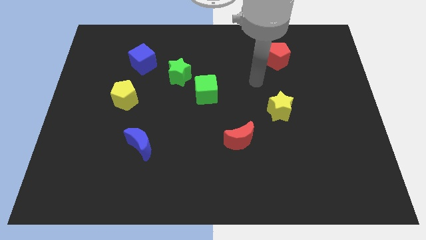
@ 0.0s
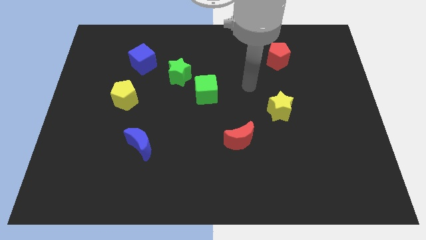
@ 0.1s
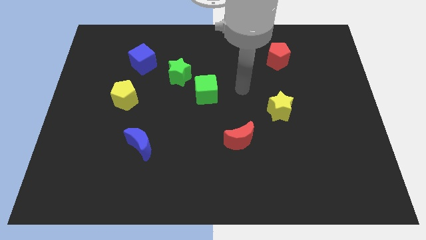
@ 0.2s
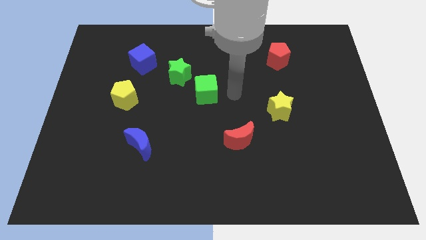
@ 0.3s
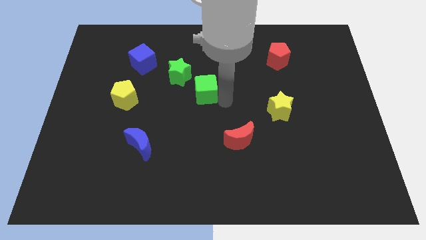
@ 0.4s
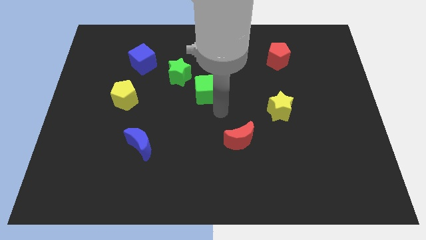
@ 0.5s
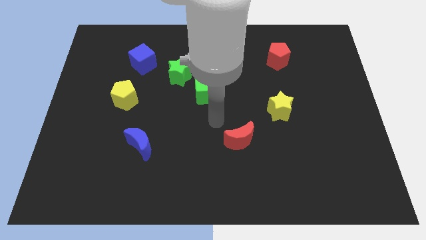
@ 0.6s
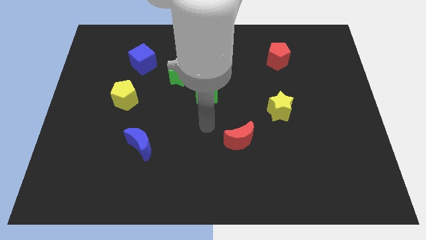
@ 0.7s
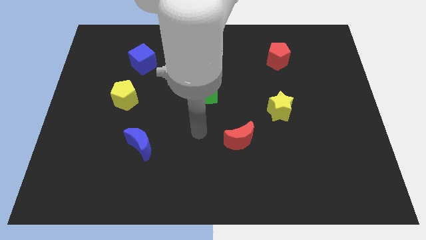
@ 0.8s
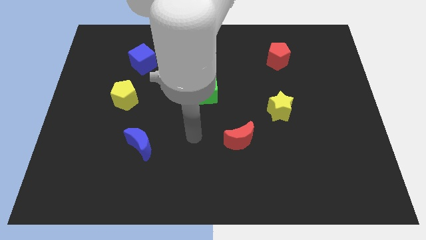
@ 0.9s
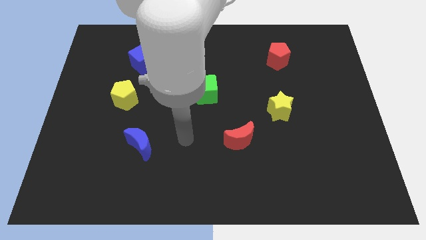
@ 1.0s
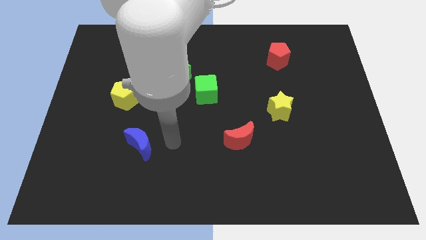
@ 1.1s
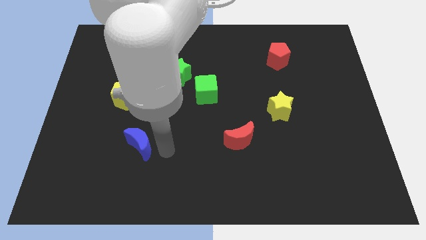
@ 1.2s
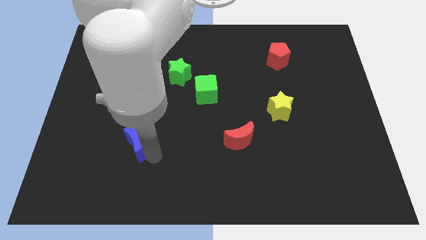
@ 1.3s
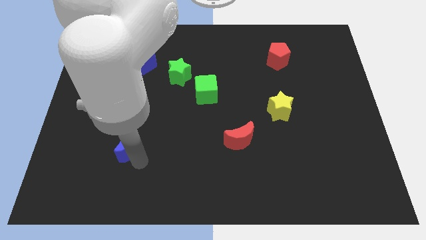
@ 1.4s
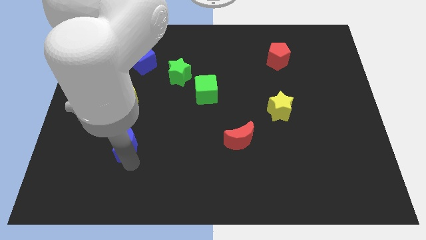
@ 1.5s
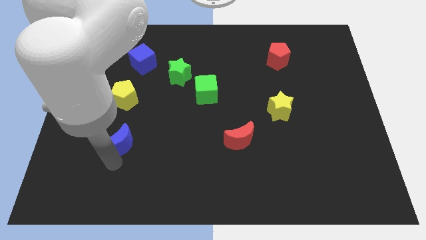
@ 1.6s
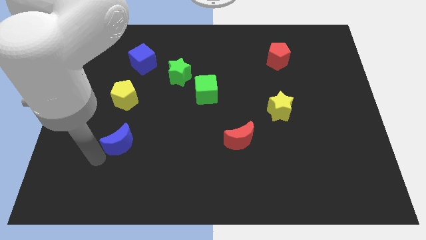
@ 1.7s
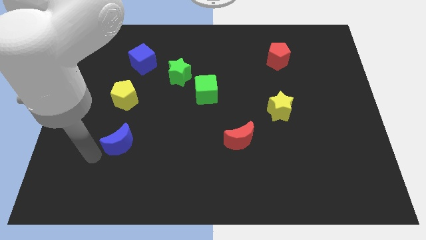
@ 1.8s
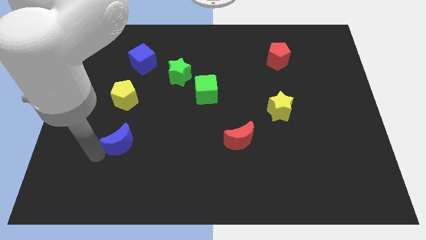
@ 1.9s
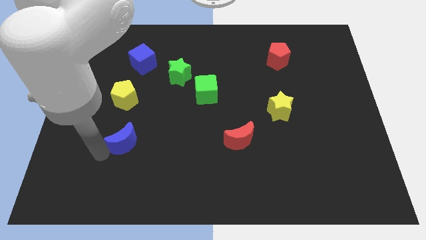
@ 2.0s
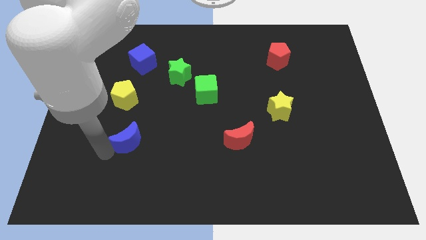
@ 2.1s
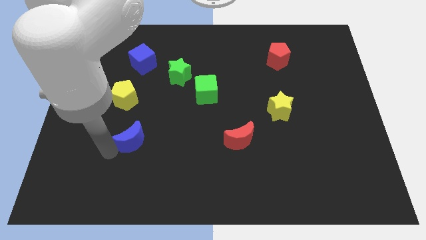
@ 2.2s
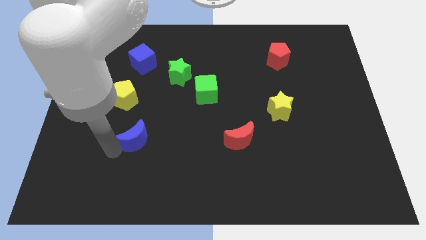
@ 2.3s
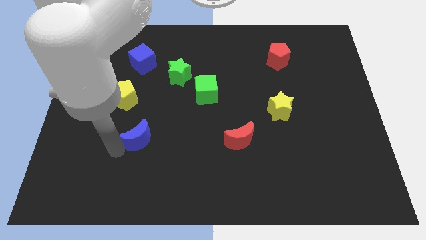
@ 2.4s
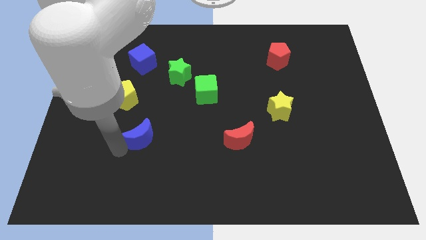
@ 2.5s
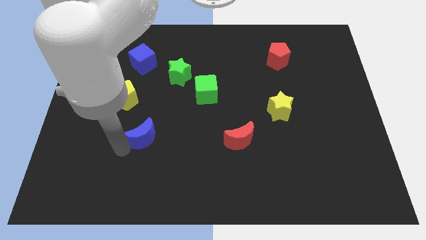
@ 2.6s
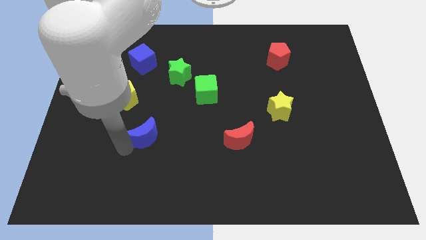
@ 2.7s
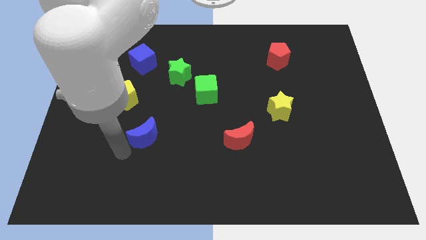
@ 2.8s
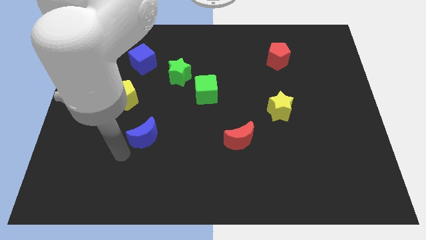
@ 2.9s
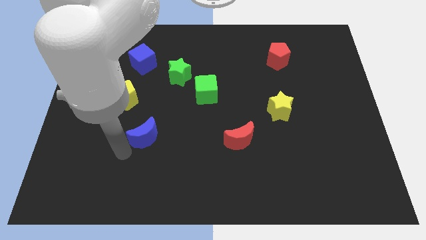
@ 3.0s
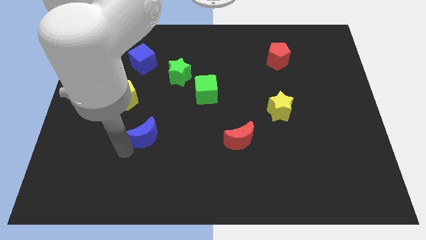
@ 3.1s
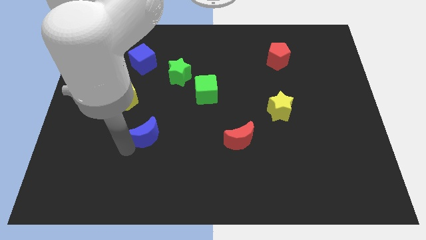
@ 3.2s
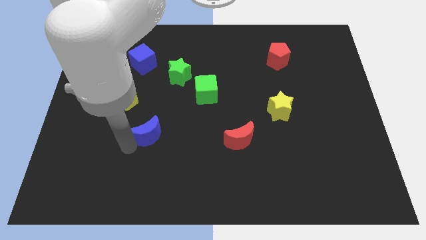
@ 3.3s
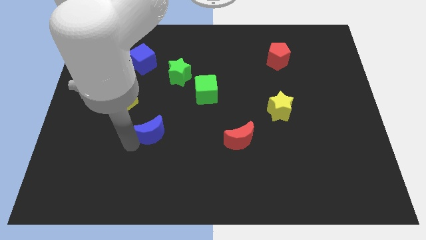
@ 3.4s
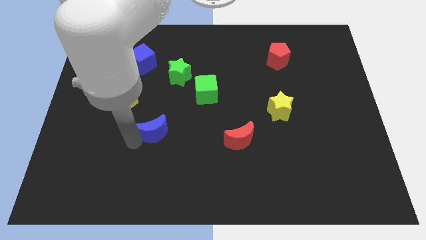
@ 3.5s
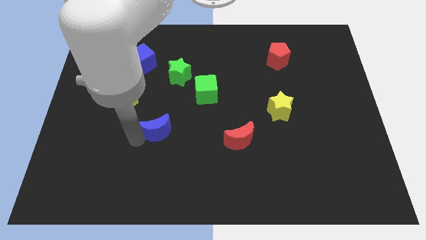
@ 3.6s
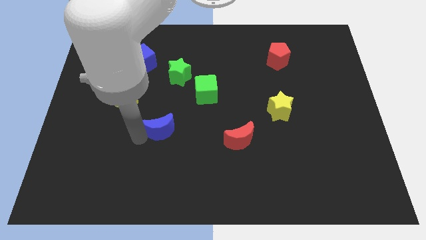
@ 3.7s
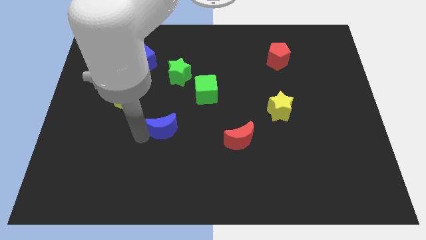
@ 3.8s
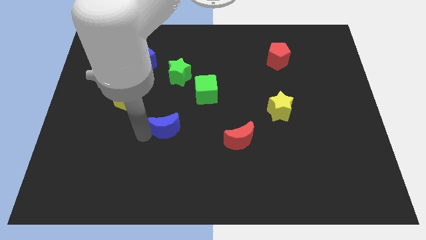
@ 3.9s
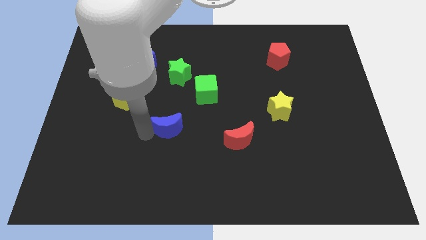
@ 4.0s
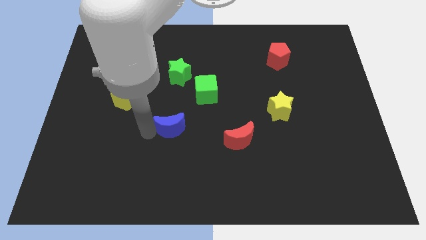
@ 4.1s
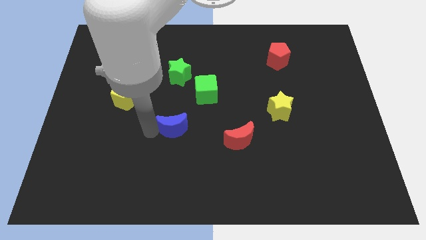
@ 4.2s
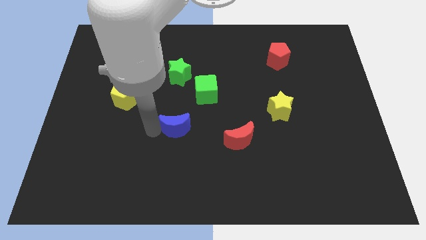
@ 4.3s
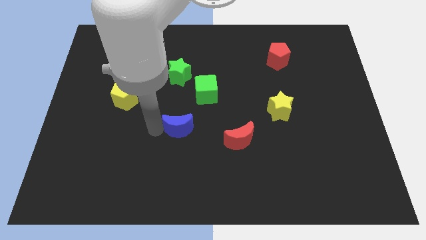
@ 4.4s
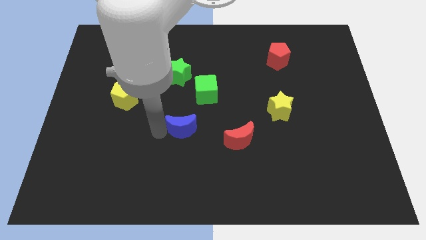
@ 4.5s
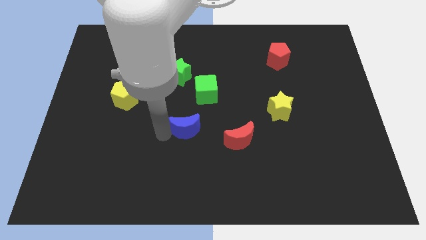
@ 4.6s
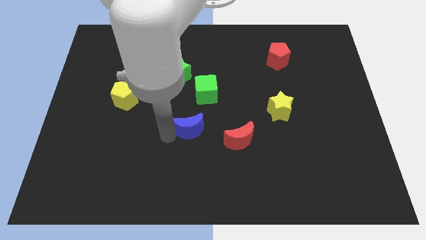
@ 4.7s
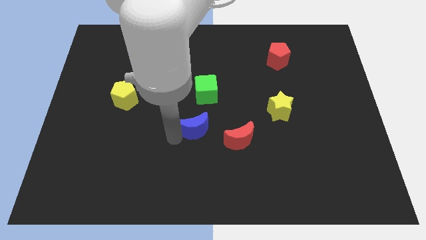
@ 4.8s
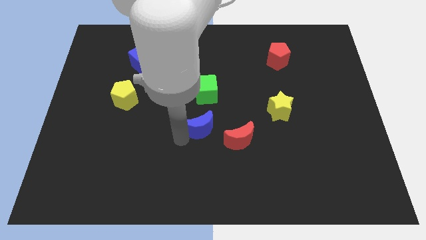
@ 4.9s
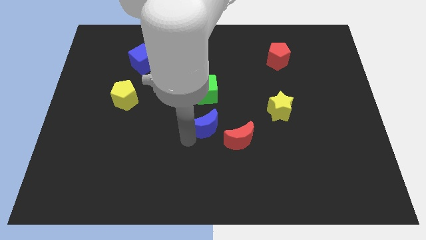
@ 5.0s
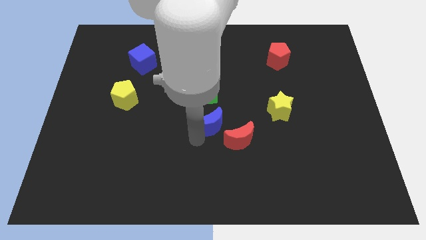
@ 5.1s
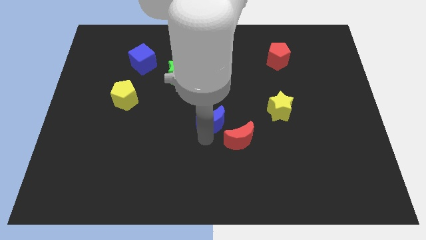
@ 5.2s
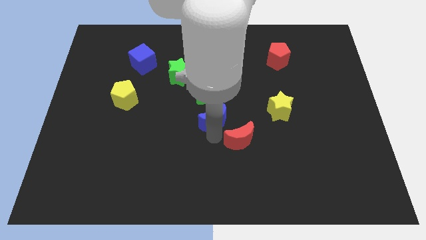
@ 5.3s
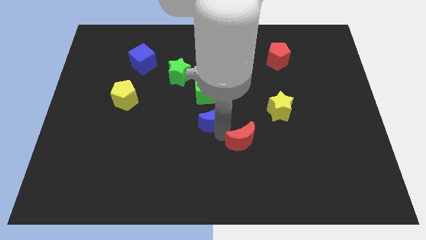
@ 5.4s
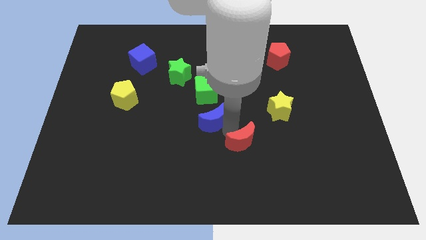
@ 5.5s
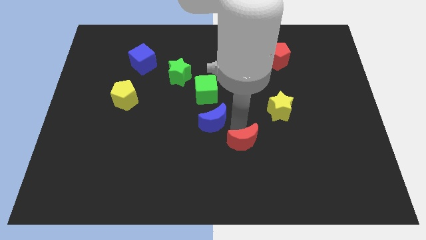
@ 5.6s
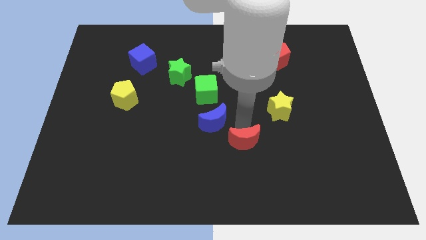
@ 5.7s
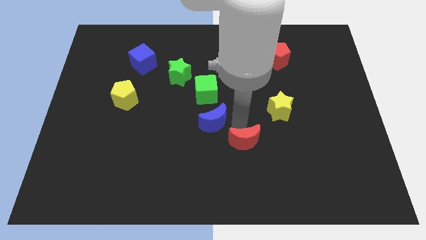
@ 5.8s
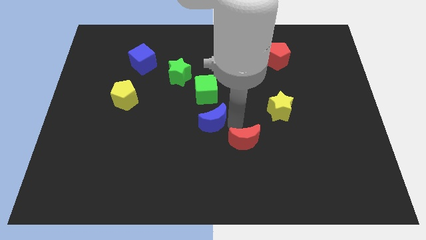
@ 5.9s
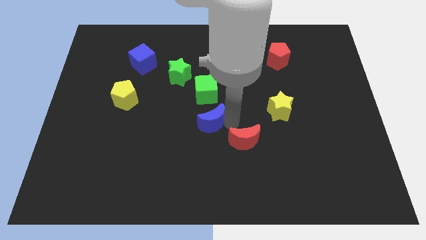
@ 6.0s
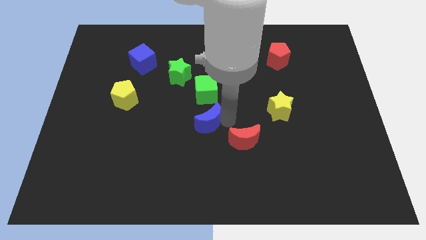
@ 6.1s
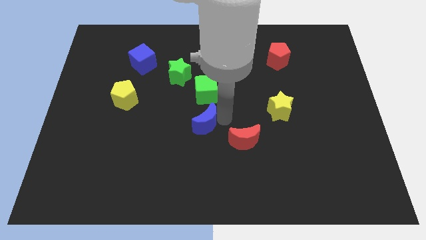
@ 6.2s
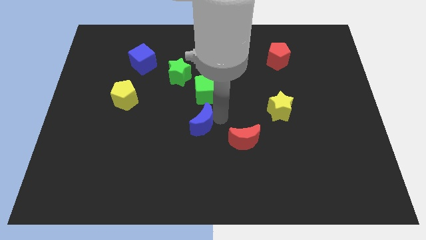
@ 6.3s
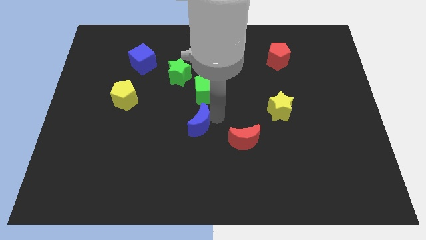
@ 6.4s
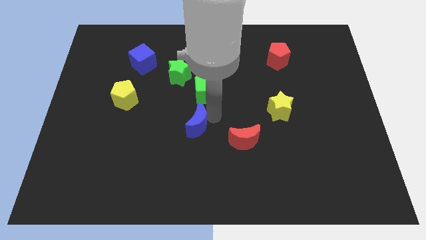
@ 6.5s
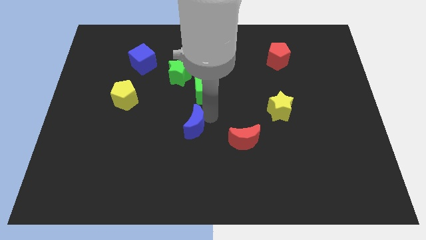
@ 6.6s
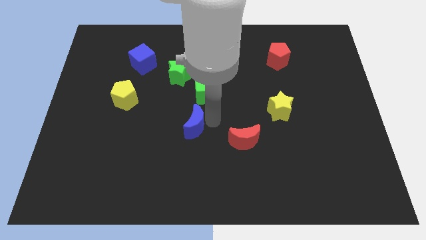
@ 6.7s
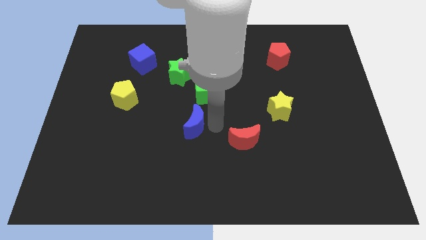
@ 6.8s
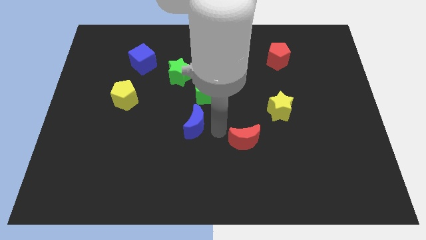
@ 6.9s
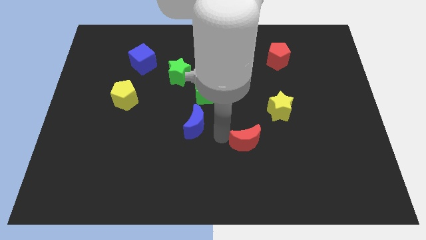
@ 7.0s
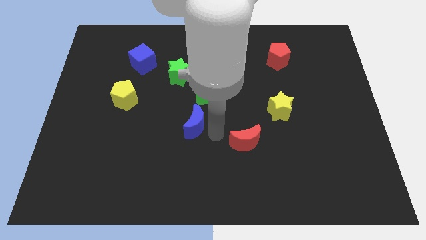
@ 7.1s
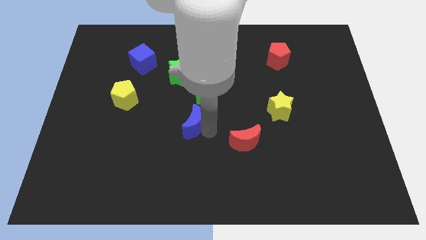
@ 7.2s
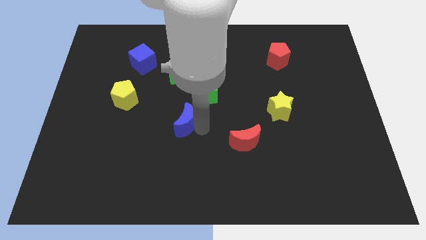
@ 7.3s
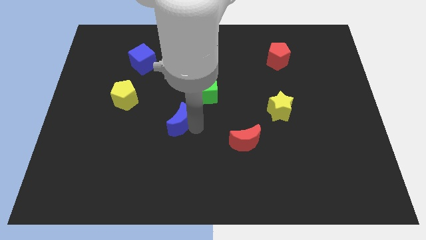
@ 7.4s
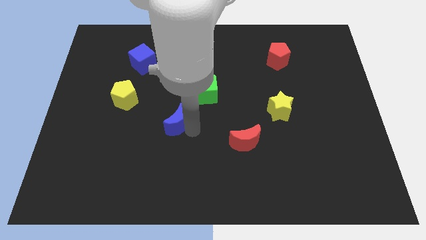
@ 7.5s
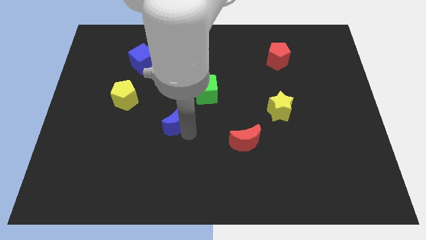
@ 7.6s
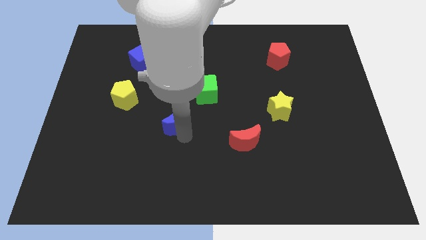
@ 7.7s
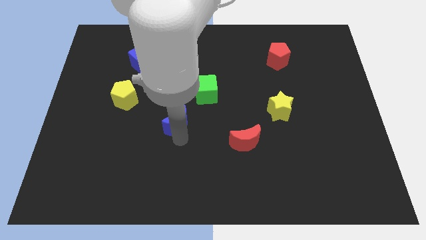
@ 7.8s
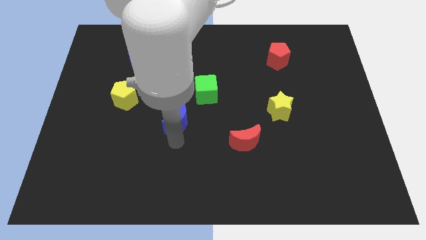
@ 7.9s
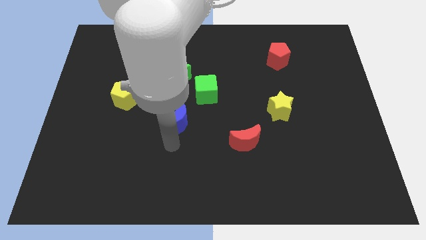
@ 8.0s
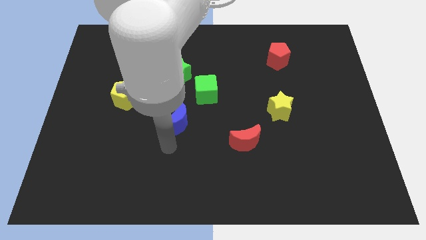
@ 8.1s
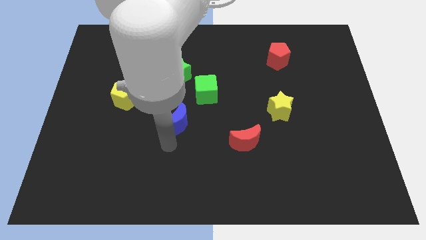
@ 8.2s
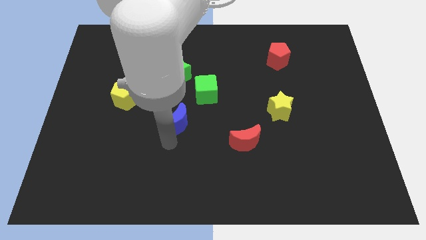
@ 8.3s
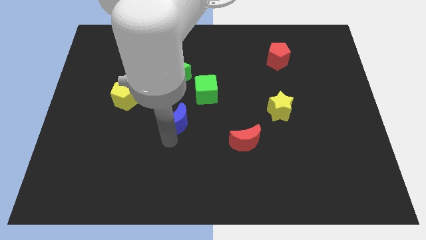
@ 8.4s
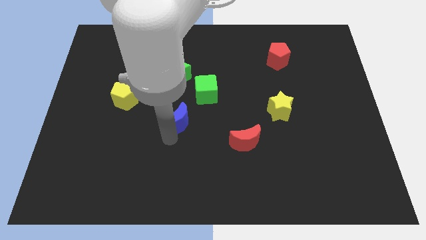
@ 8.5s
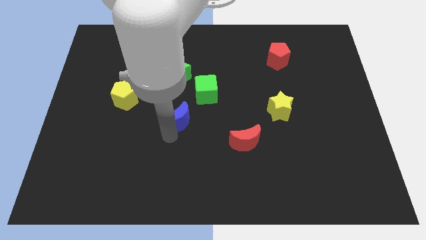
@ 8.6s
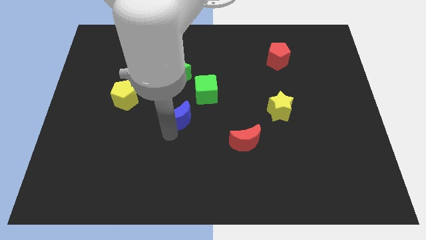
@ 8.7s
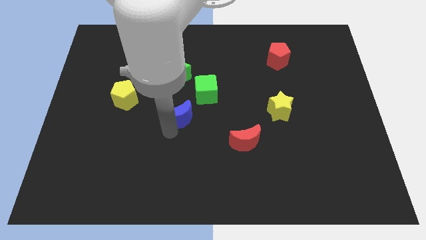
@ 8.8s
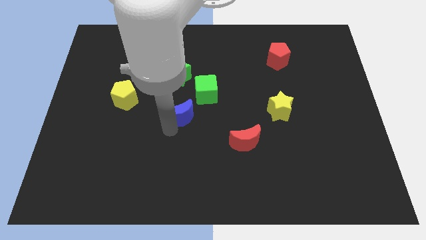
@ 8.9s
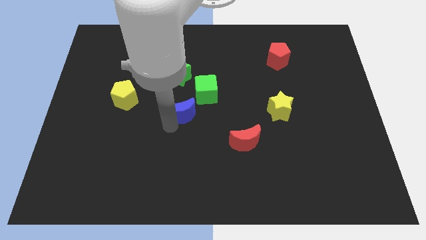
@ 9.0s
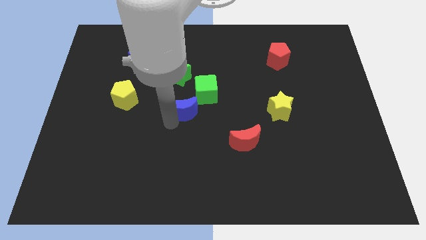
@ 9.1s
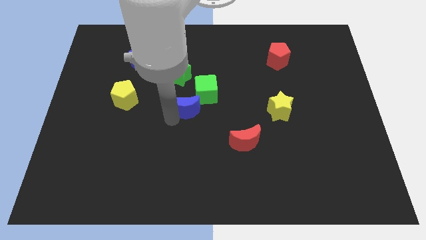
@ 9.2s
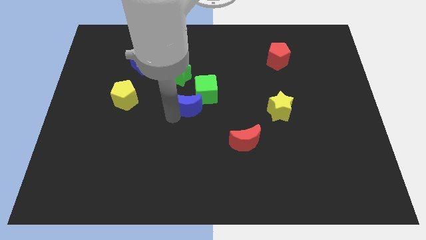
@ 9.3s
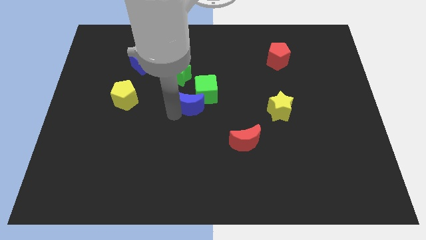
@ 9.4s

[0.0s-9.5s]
push the blue moon towards the green cube
